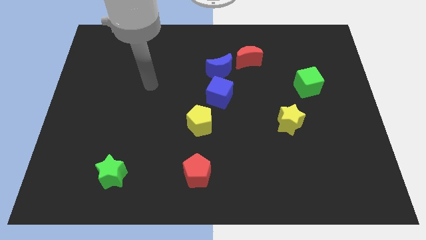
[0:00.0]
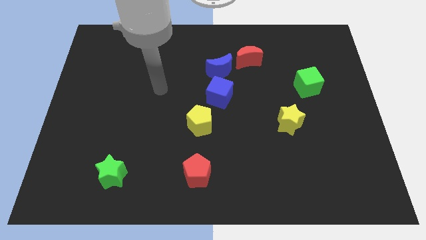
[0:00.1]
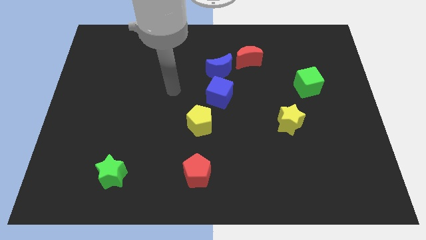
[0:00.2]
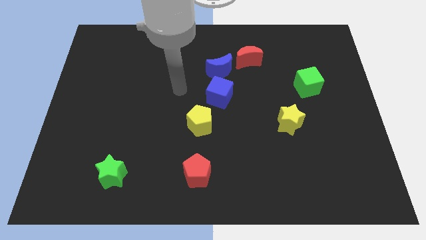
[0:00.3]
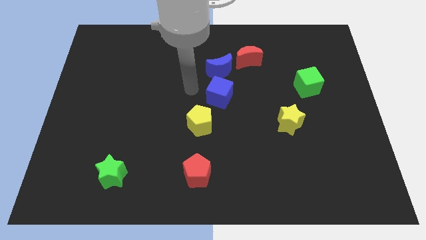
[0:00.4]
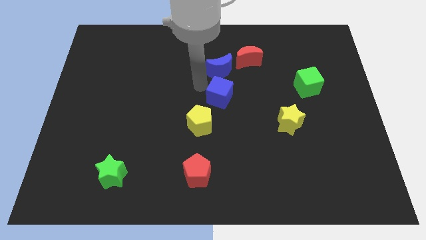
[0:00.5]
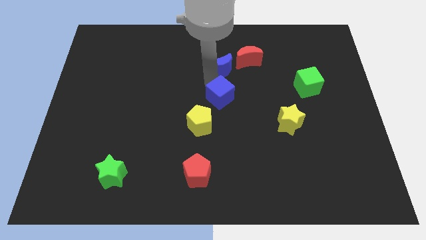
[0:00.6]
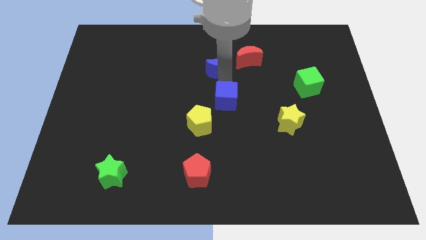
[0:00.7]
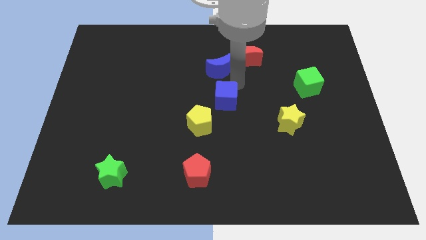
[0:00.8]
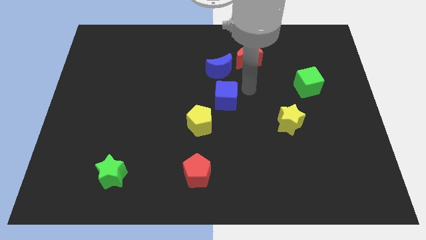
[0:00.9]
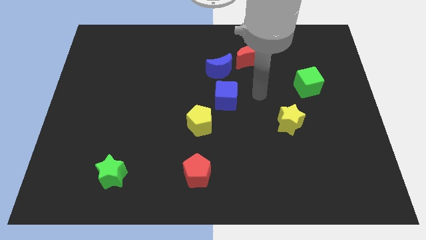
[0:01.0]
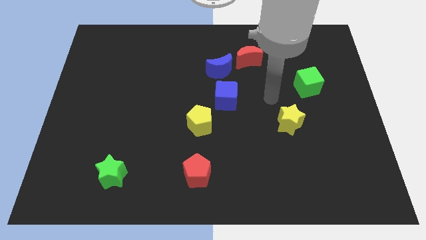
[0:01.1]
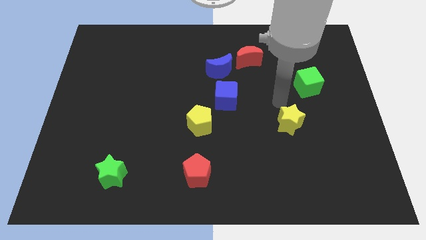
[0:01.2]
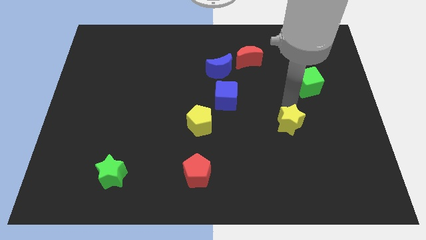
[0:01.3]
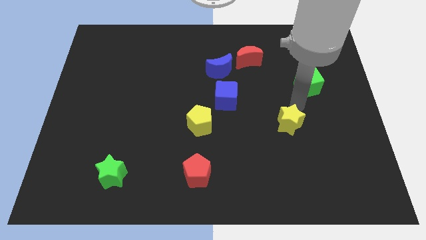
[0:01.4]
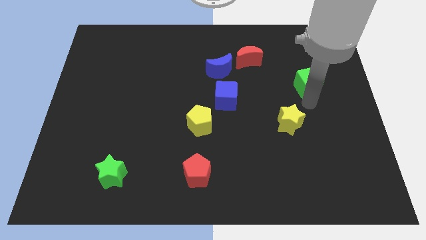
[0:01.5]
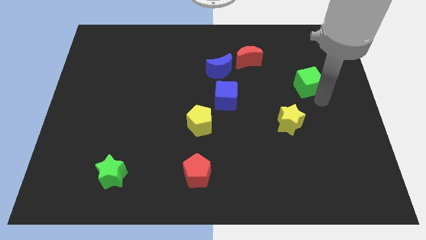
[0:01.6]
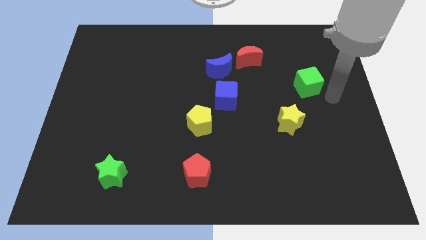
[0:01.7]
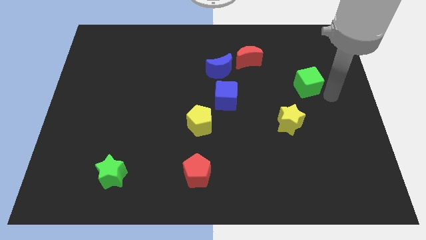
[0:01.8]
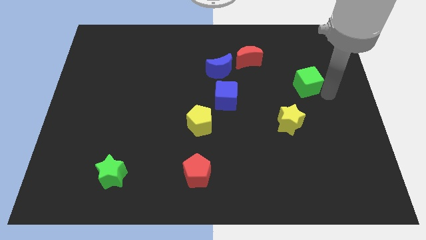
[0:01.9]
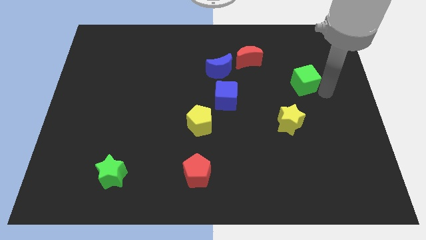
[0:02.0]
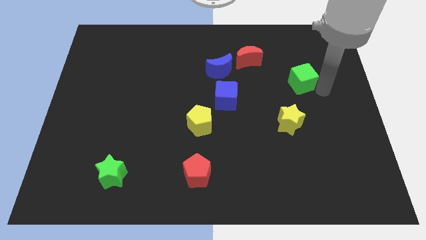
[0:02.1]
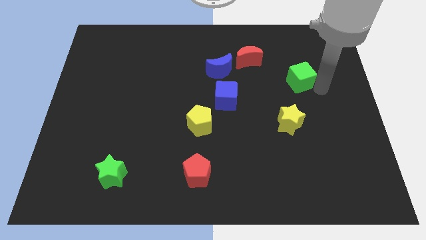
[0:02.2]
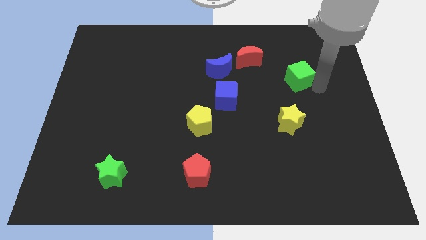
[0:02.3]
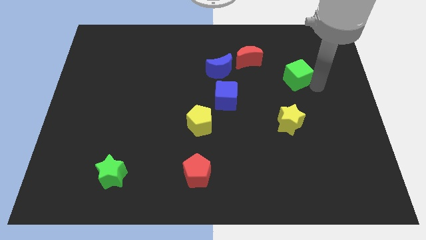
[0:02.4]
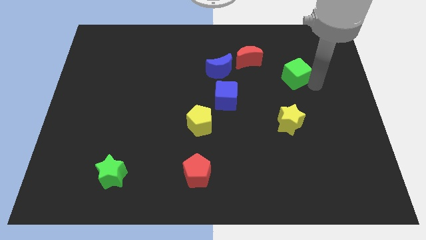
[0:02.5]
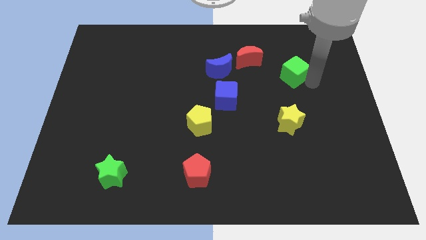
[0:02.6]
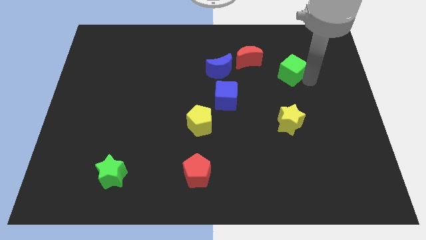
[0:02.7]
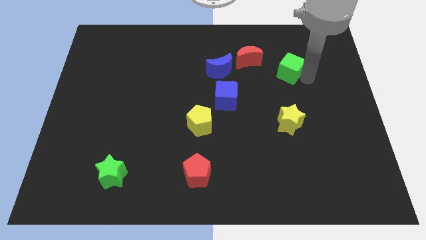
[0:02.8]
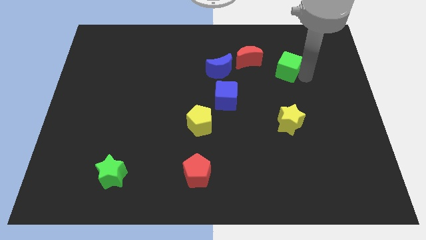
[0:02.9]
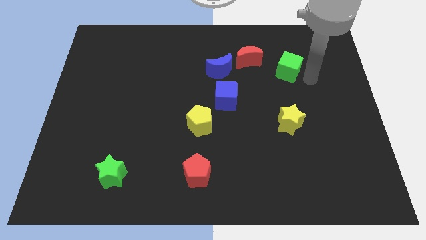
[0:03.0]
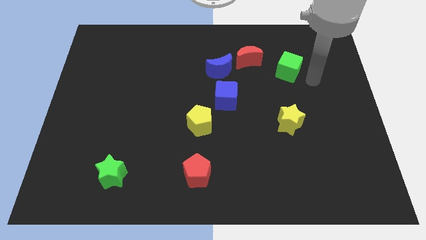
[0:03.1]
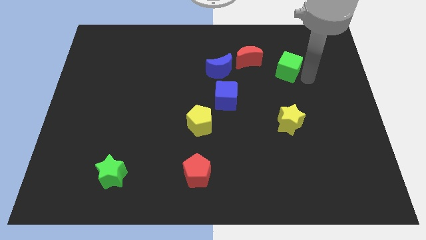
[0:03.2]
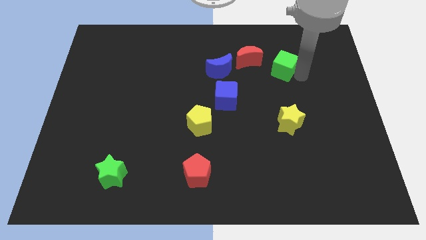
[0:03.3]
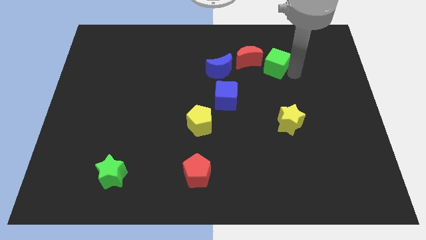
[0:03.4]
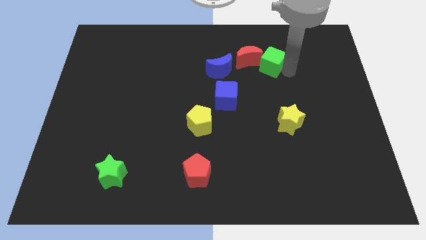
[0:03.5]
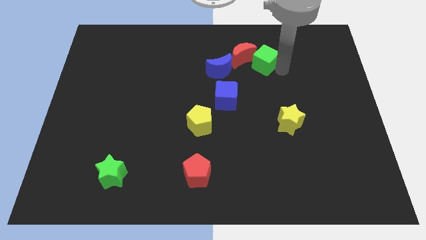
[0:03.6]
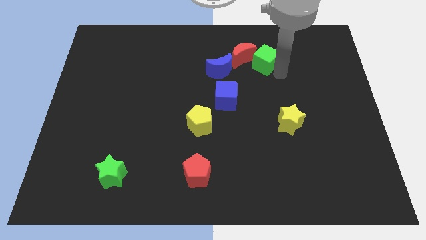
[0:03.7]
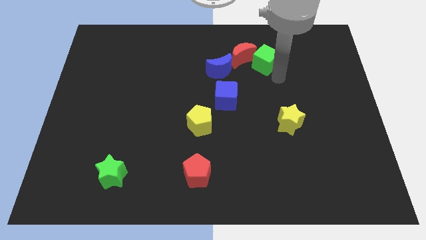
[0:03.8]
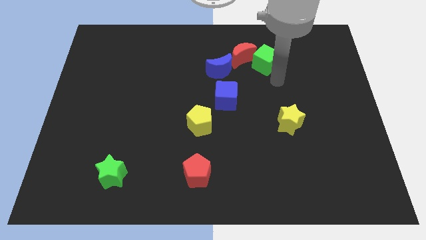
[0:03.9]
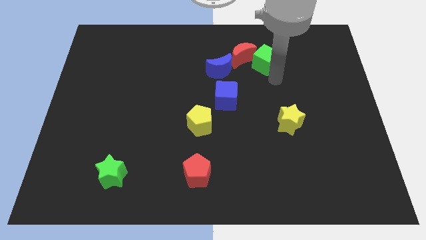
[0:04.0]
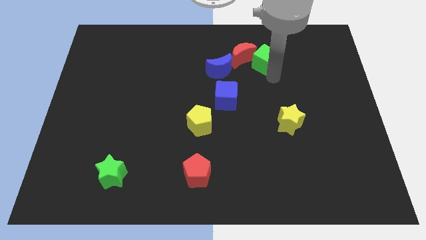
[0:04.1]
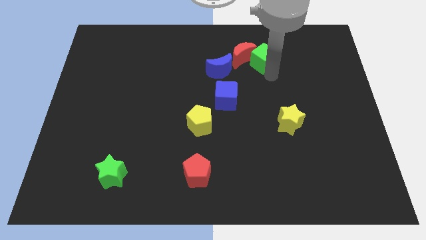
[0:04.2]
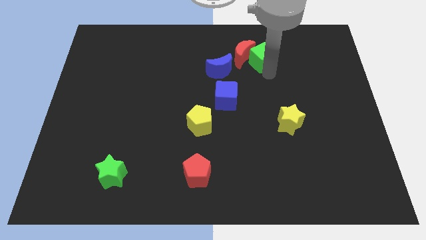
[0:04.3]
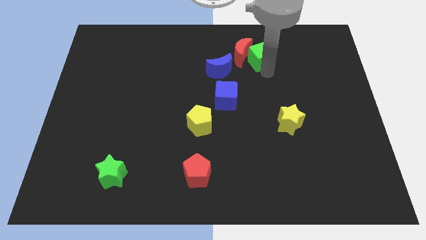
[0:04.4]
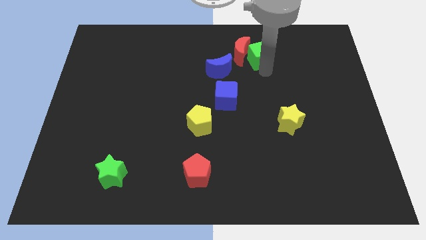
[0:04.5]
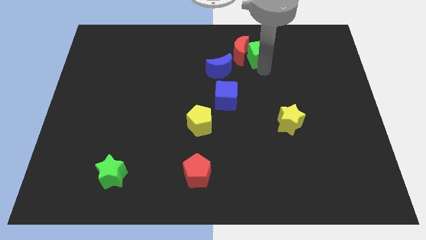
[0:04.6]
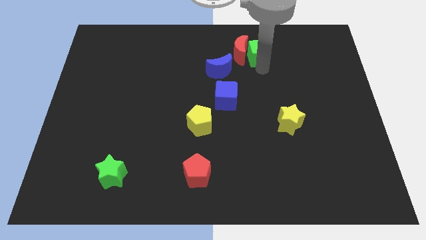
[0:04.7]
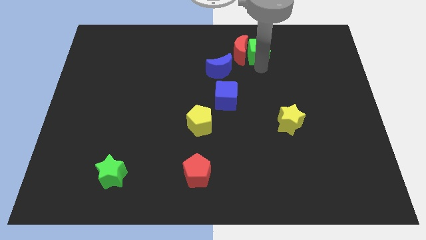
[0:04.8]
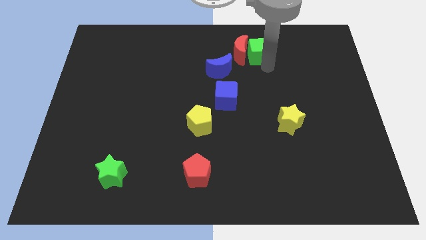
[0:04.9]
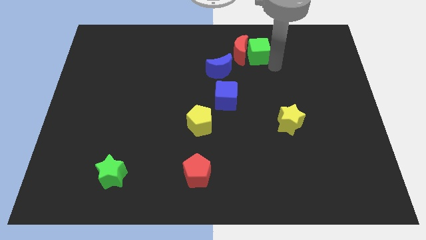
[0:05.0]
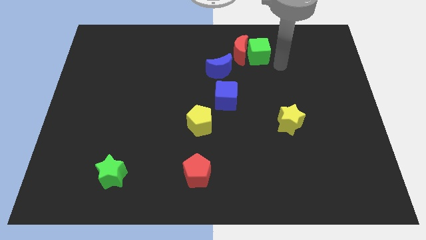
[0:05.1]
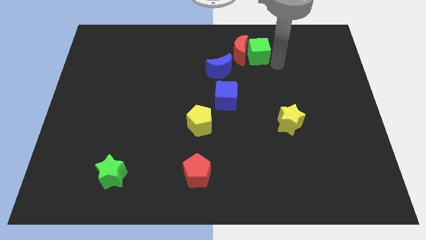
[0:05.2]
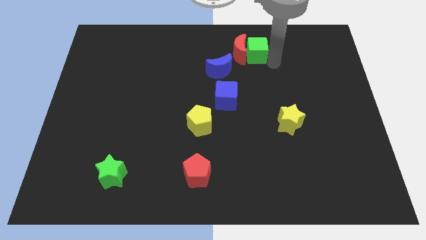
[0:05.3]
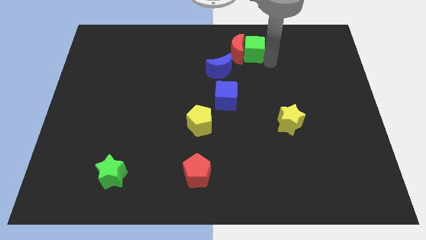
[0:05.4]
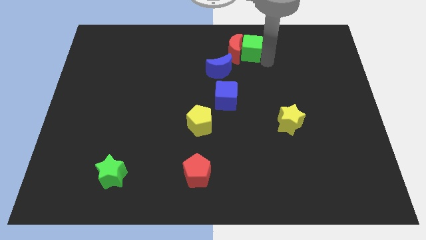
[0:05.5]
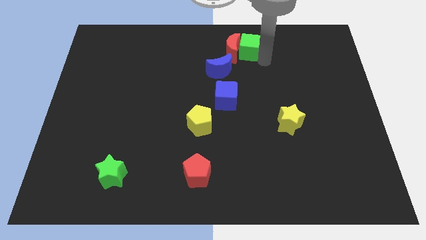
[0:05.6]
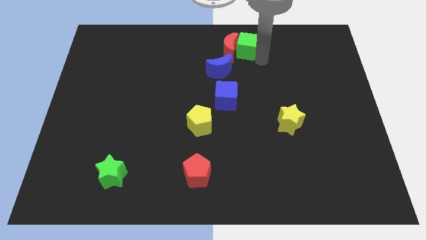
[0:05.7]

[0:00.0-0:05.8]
put the green cube to the top side

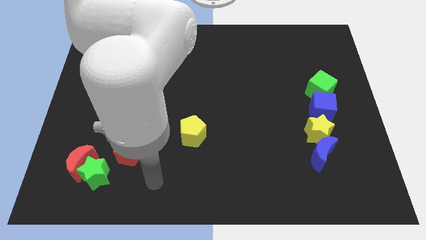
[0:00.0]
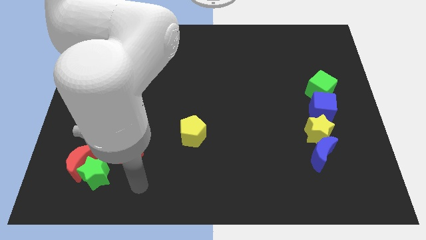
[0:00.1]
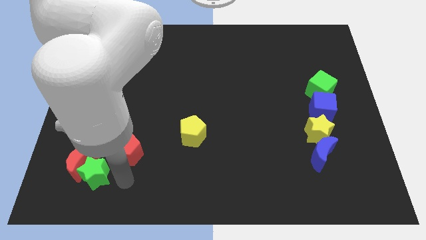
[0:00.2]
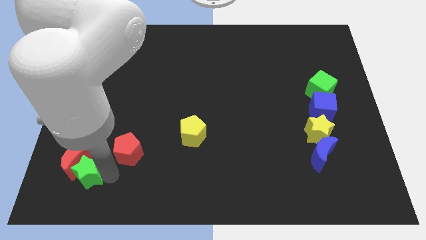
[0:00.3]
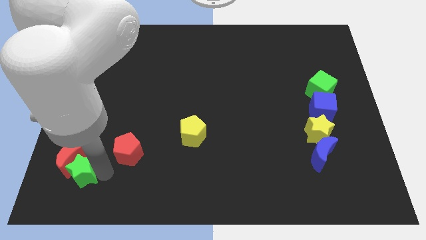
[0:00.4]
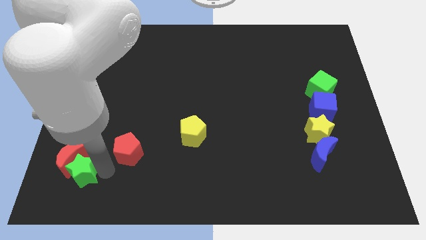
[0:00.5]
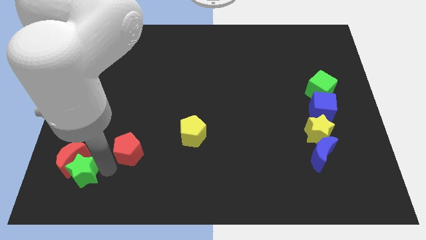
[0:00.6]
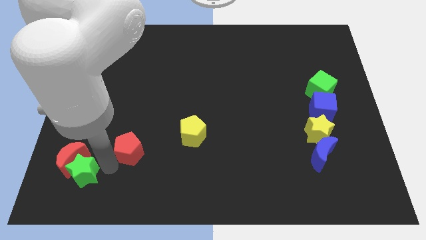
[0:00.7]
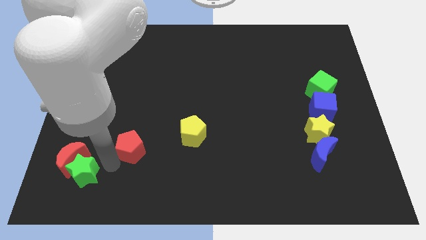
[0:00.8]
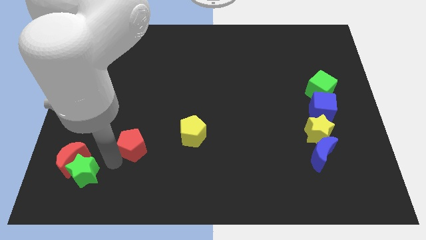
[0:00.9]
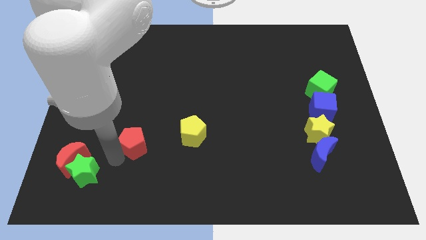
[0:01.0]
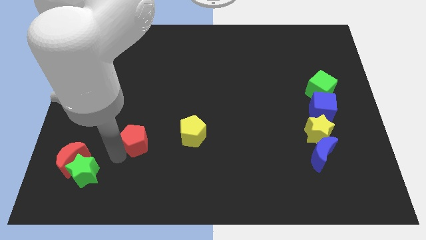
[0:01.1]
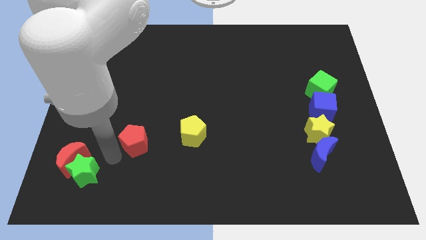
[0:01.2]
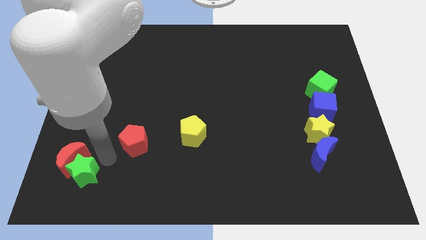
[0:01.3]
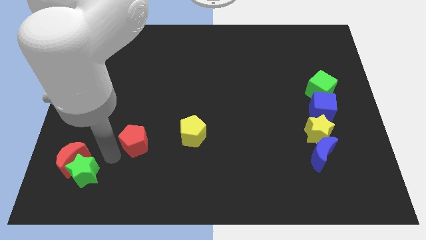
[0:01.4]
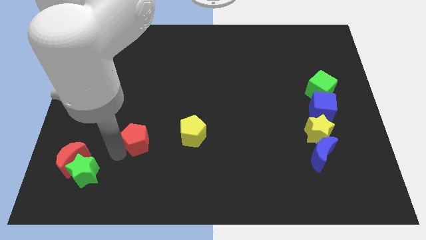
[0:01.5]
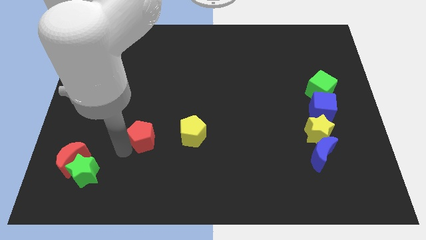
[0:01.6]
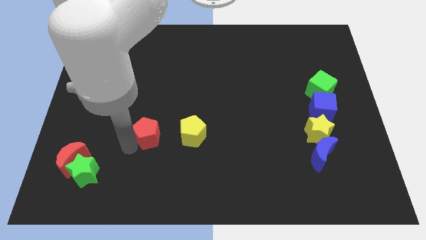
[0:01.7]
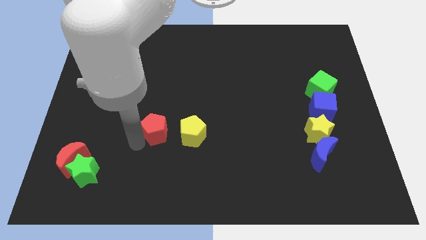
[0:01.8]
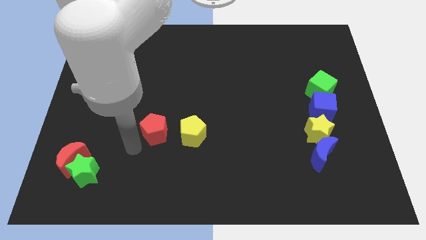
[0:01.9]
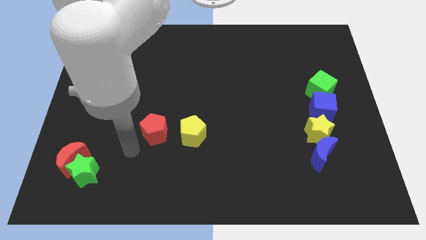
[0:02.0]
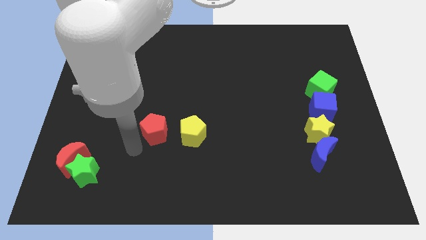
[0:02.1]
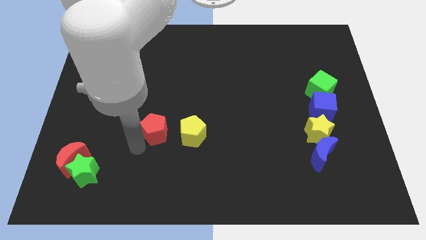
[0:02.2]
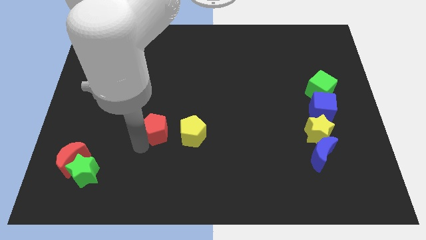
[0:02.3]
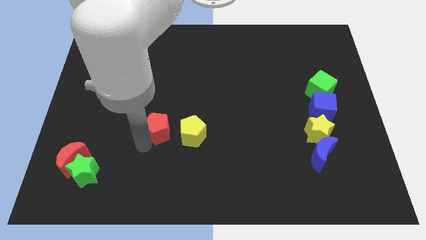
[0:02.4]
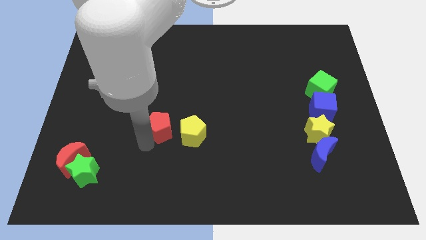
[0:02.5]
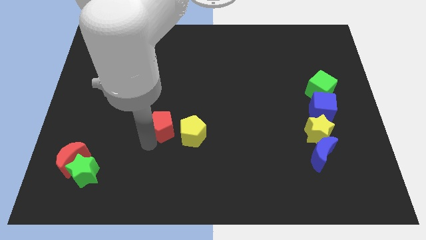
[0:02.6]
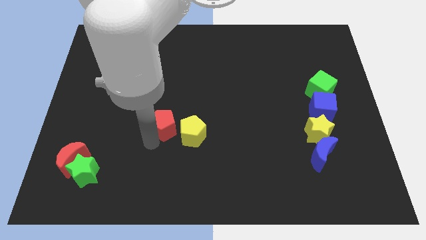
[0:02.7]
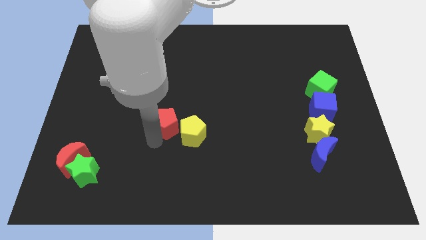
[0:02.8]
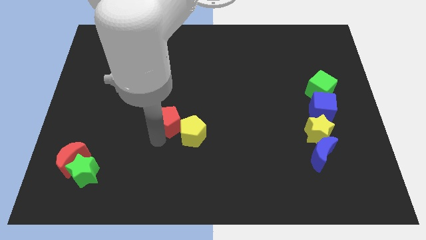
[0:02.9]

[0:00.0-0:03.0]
slide the red pentagon to the middle
